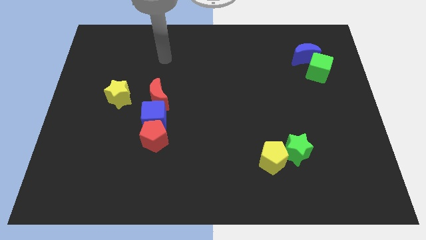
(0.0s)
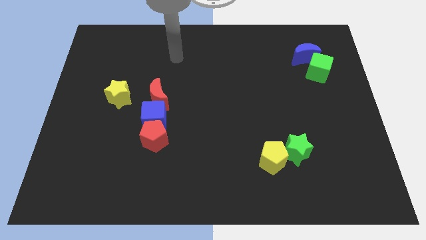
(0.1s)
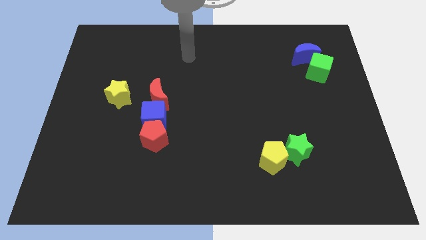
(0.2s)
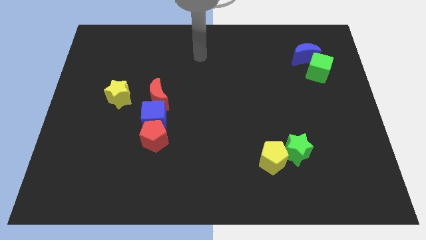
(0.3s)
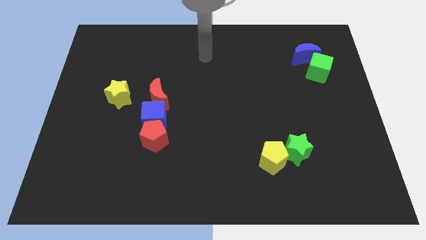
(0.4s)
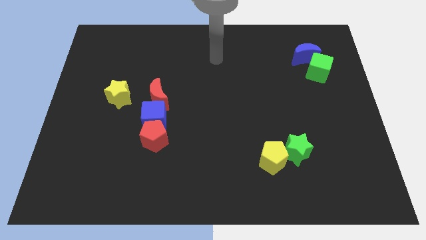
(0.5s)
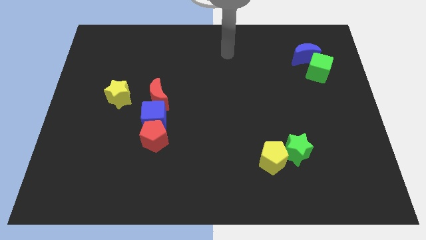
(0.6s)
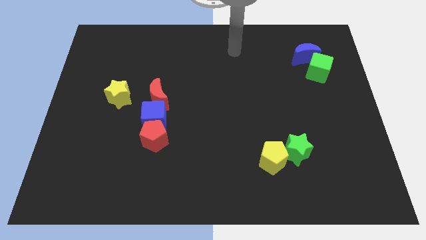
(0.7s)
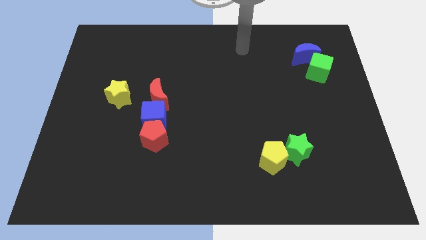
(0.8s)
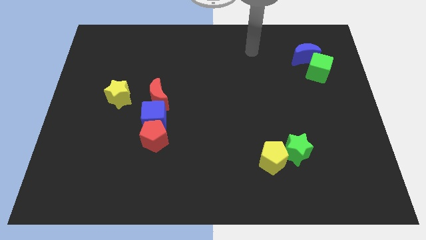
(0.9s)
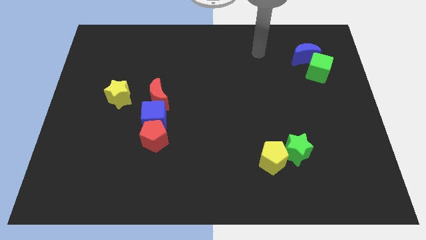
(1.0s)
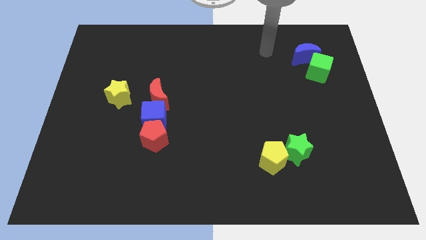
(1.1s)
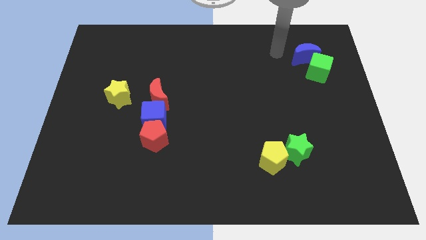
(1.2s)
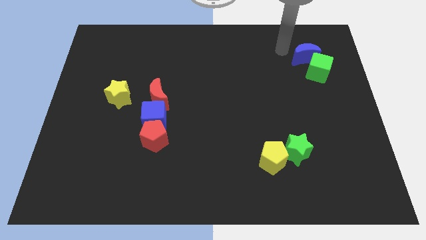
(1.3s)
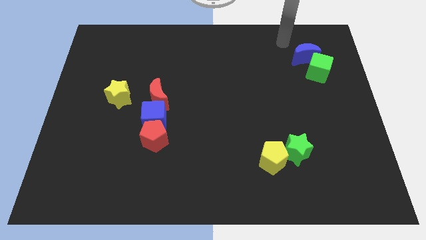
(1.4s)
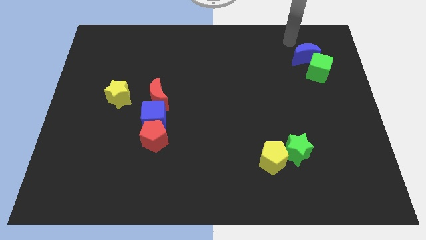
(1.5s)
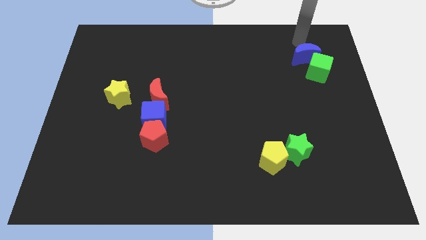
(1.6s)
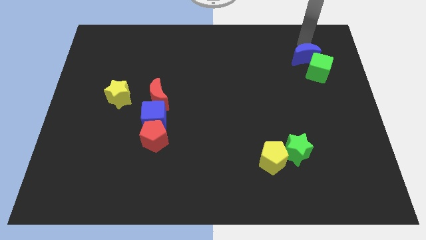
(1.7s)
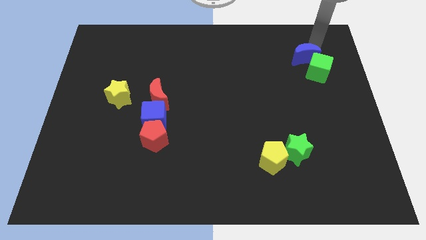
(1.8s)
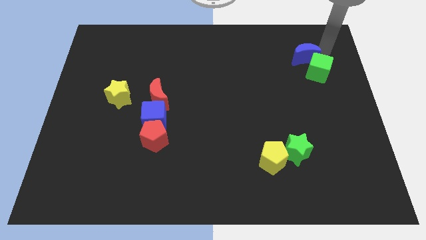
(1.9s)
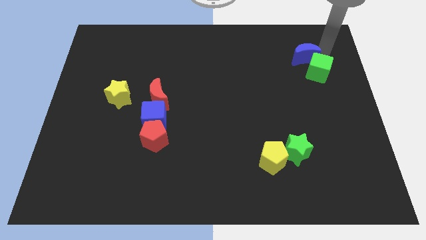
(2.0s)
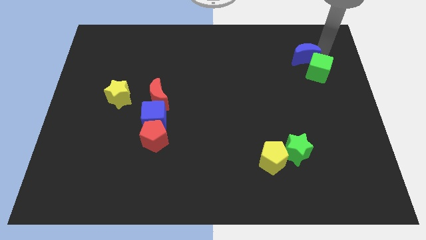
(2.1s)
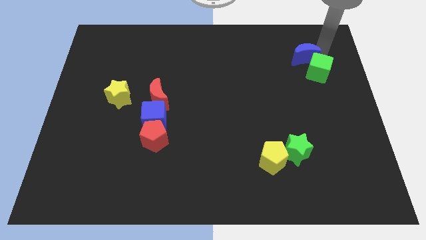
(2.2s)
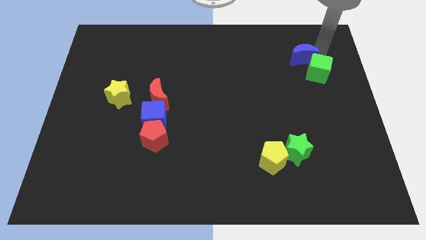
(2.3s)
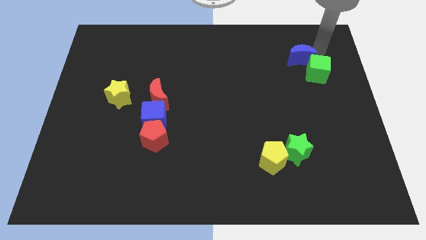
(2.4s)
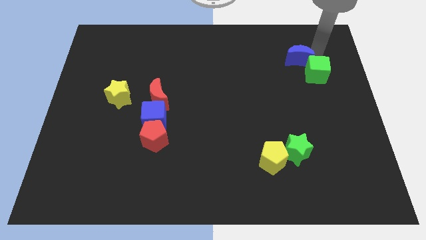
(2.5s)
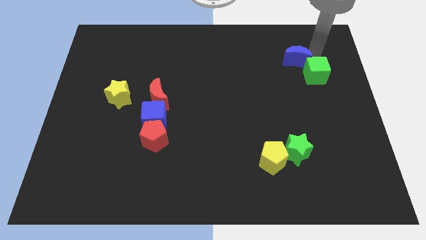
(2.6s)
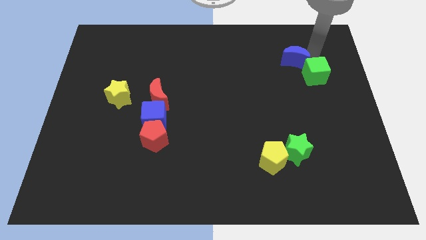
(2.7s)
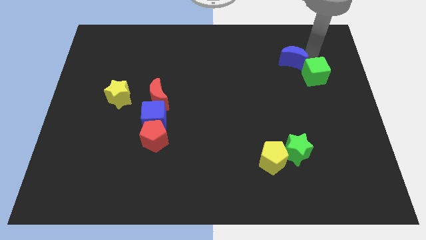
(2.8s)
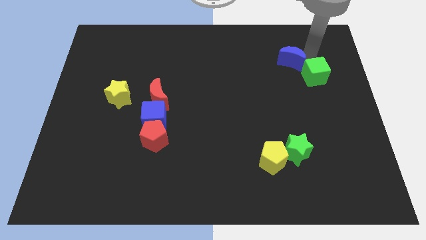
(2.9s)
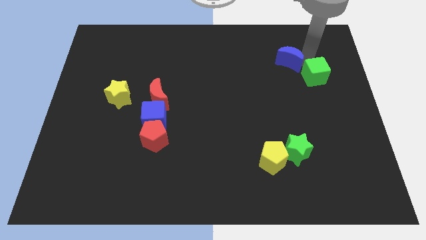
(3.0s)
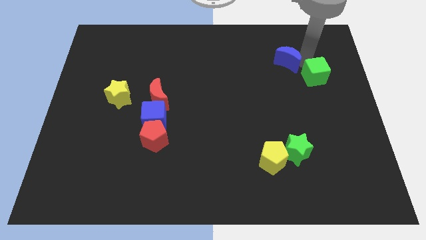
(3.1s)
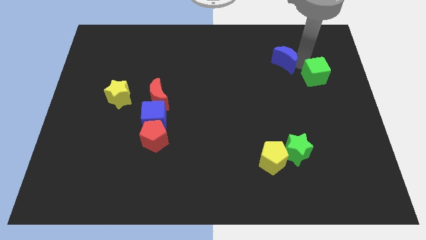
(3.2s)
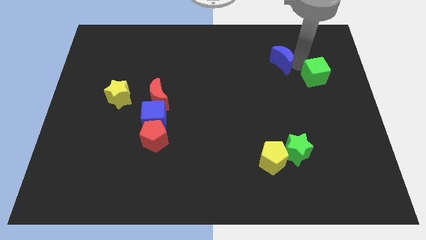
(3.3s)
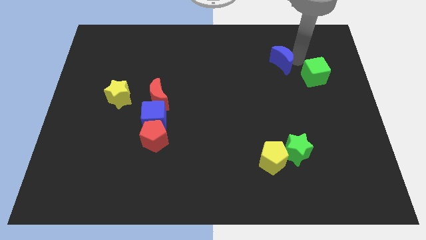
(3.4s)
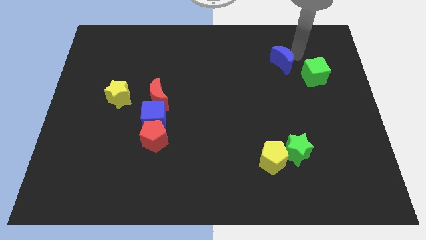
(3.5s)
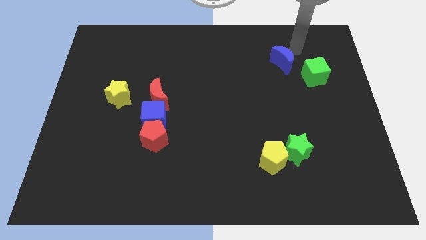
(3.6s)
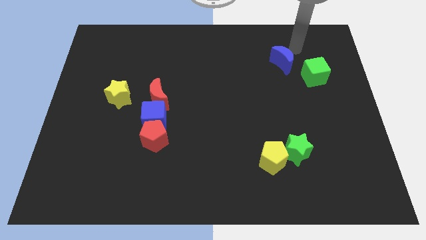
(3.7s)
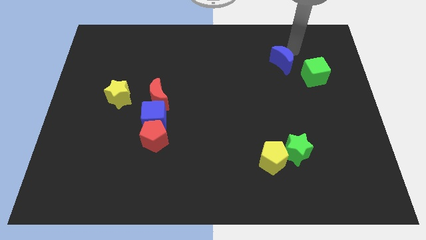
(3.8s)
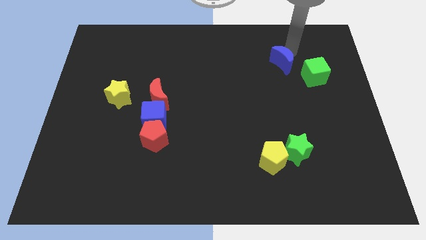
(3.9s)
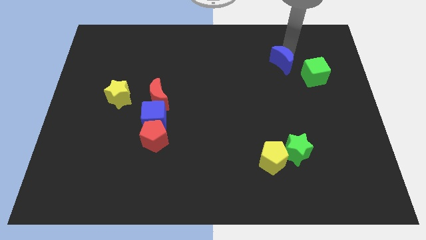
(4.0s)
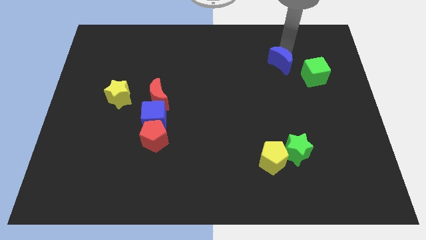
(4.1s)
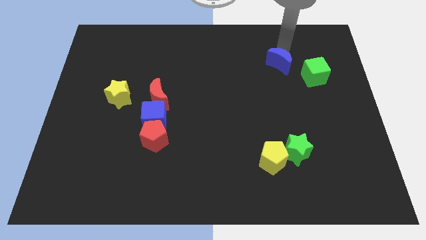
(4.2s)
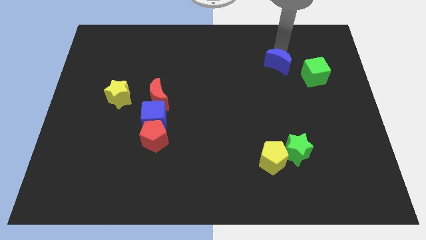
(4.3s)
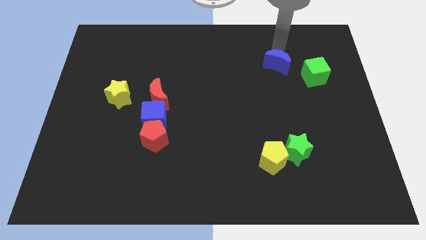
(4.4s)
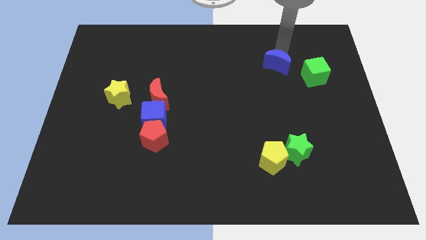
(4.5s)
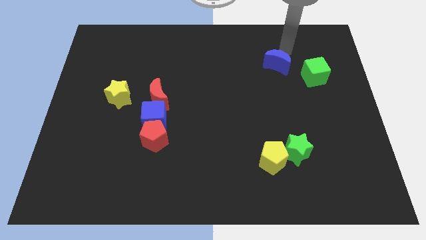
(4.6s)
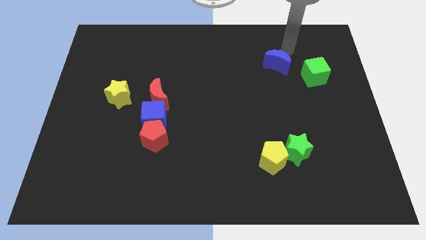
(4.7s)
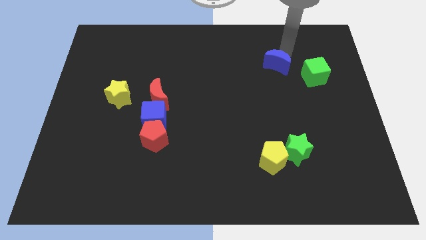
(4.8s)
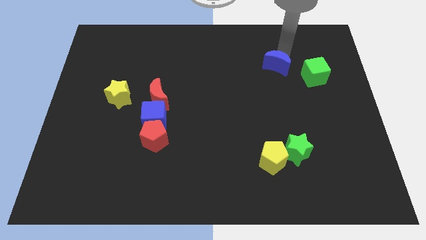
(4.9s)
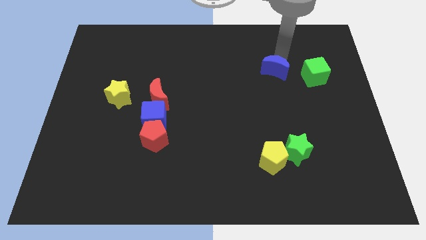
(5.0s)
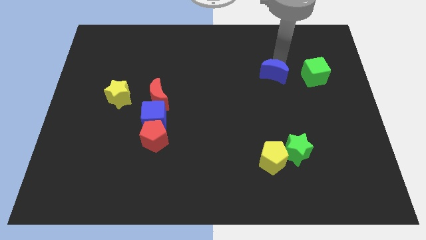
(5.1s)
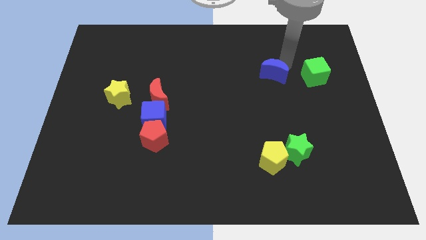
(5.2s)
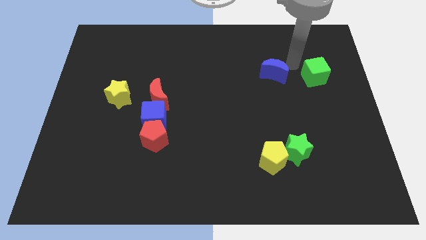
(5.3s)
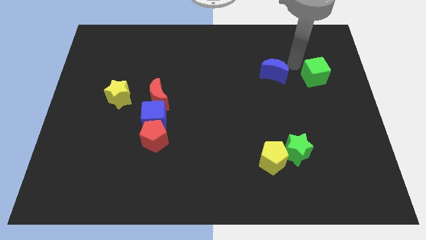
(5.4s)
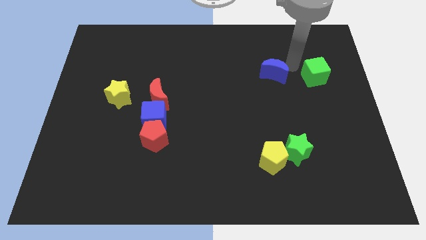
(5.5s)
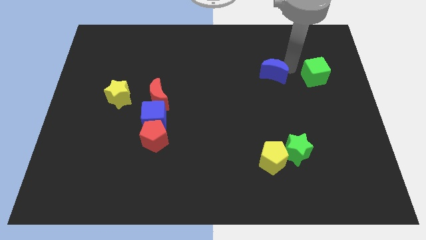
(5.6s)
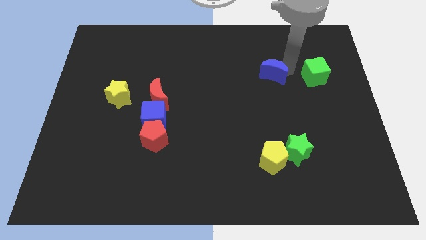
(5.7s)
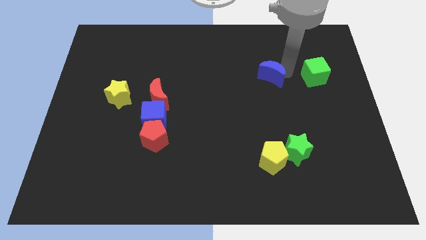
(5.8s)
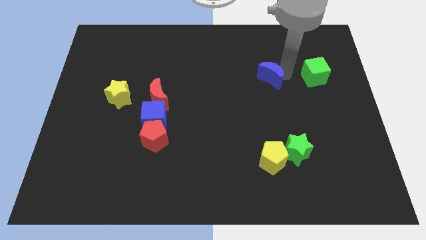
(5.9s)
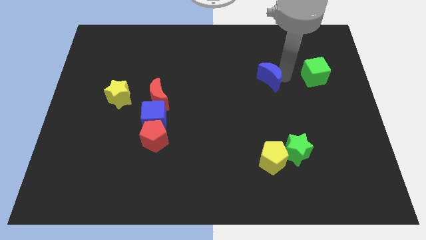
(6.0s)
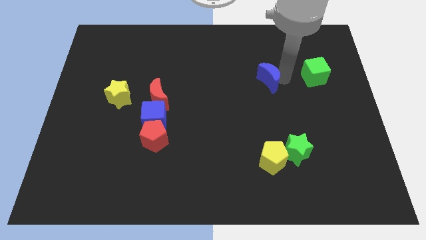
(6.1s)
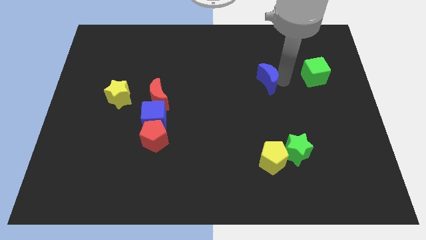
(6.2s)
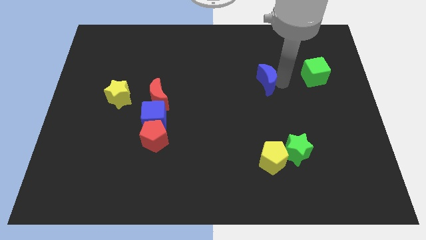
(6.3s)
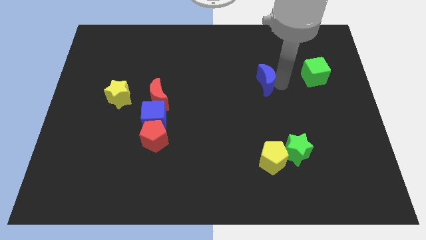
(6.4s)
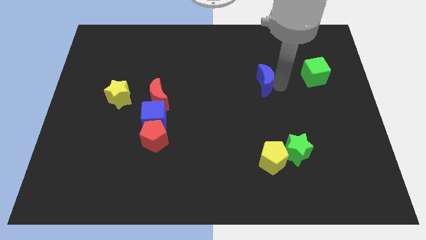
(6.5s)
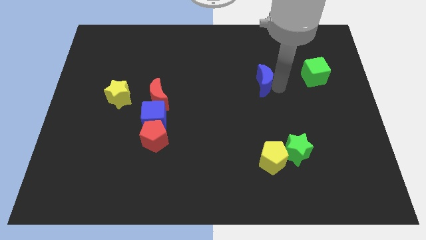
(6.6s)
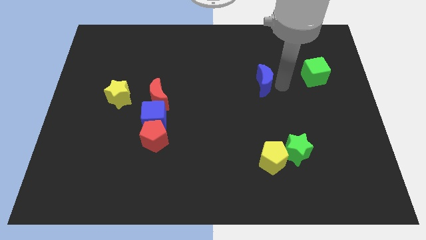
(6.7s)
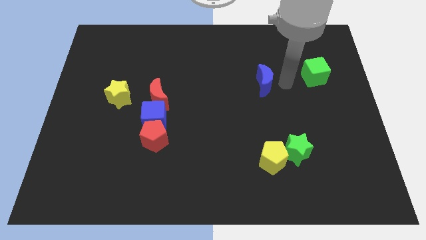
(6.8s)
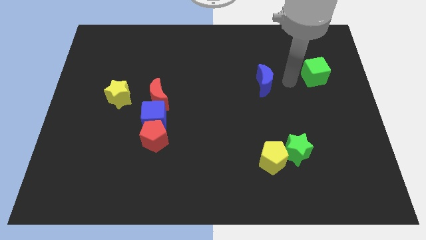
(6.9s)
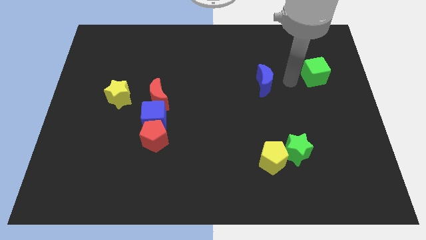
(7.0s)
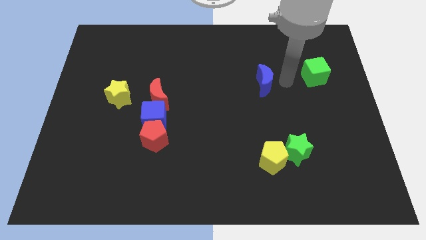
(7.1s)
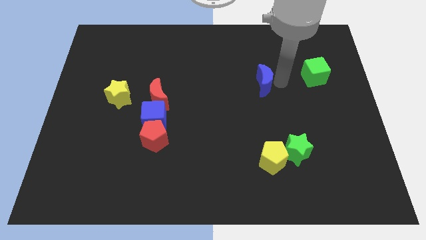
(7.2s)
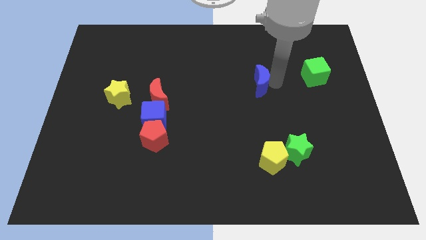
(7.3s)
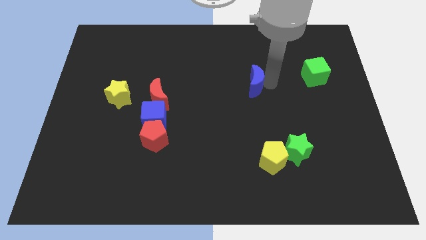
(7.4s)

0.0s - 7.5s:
move the blue moon to the center of the board
